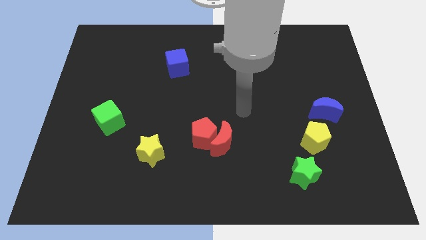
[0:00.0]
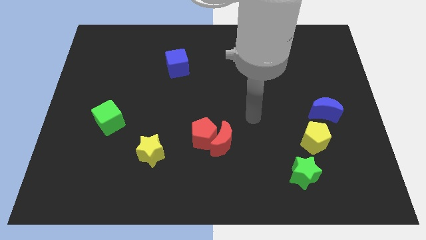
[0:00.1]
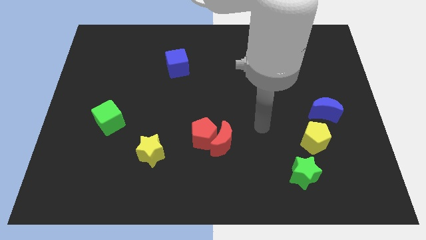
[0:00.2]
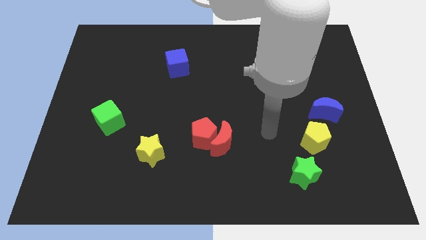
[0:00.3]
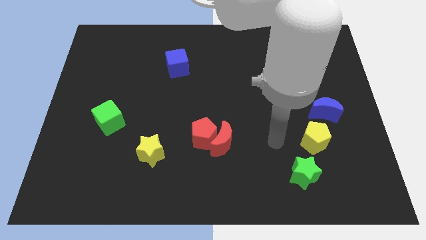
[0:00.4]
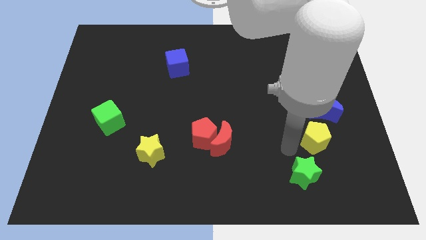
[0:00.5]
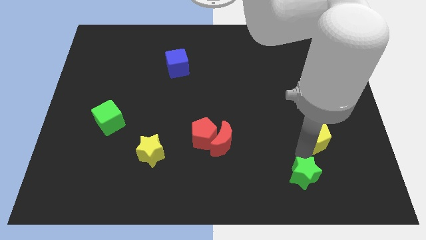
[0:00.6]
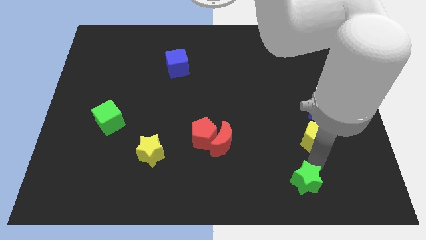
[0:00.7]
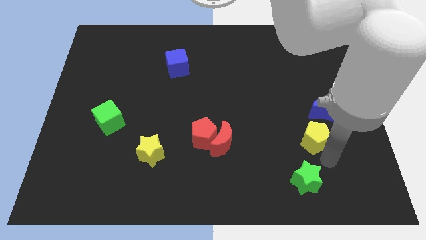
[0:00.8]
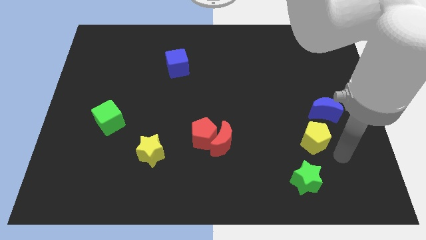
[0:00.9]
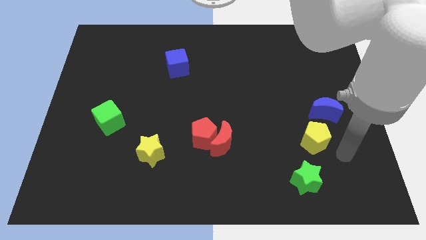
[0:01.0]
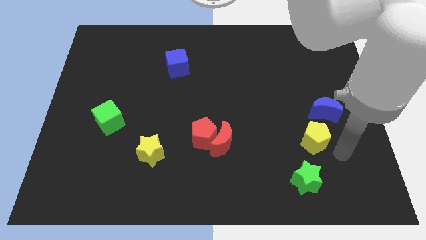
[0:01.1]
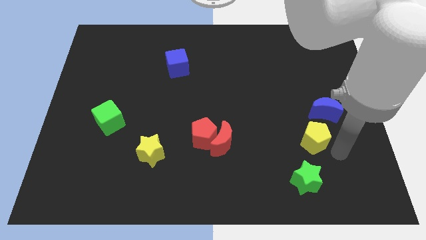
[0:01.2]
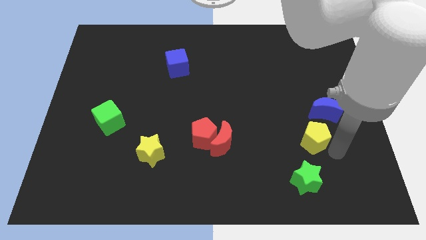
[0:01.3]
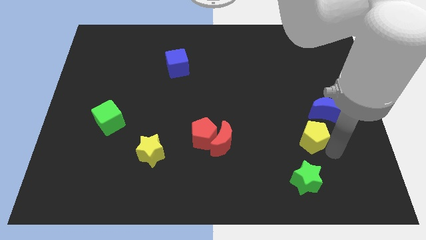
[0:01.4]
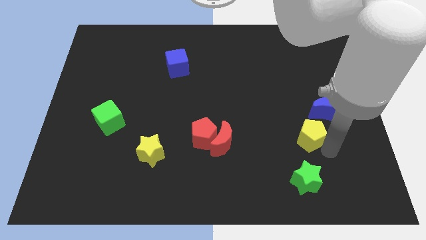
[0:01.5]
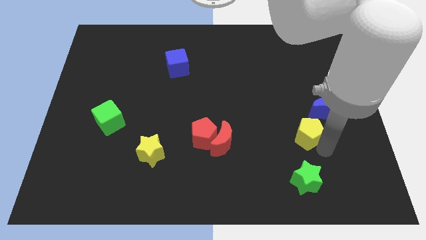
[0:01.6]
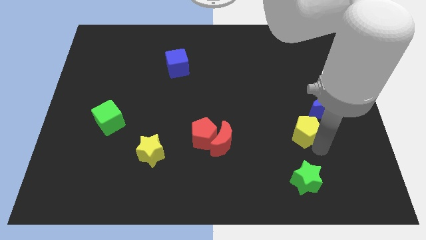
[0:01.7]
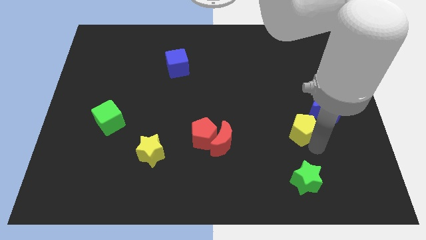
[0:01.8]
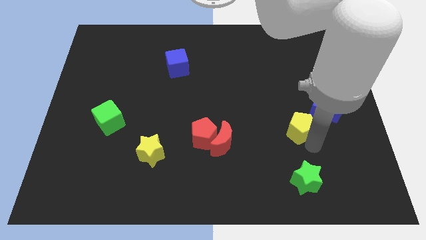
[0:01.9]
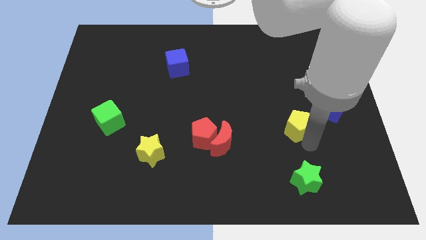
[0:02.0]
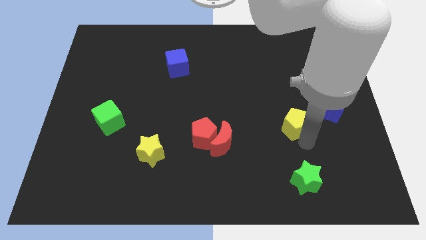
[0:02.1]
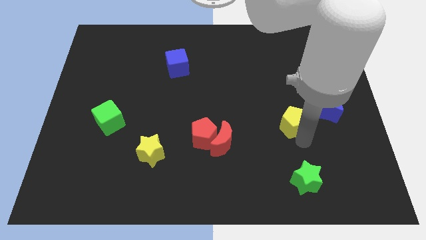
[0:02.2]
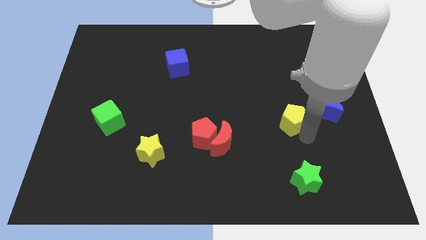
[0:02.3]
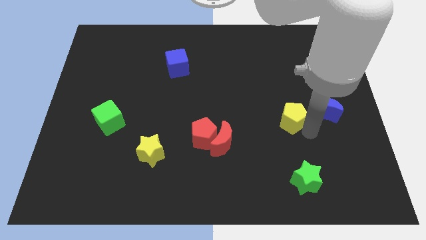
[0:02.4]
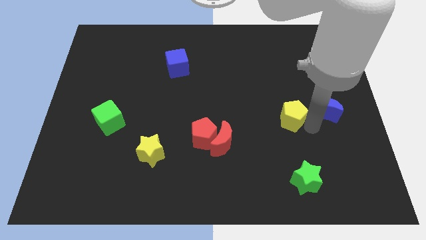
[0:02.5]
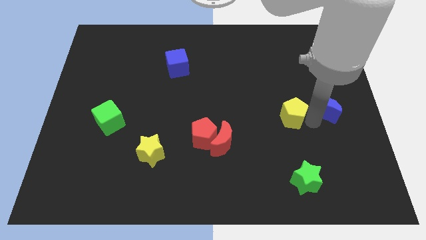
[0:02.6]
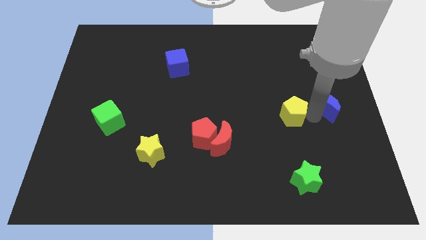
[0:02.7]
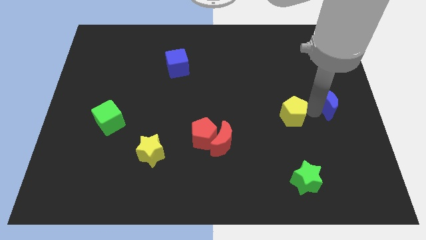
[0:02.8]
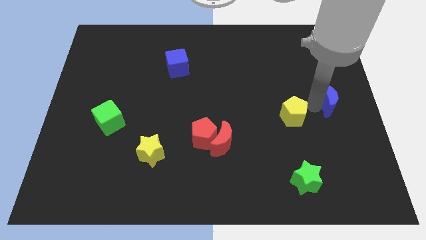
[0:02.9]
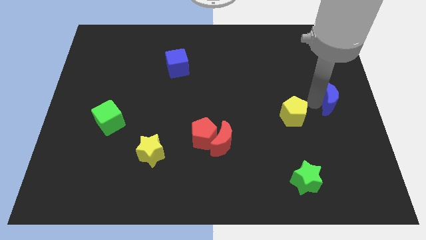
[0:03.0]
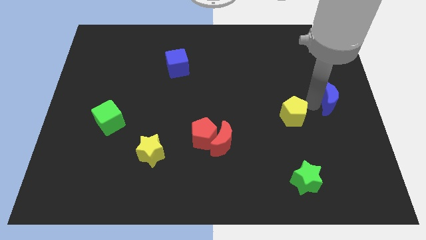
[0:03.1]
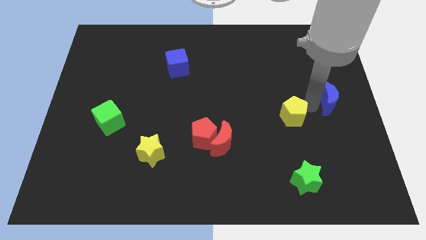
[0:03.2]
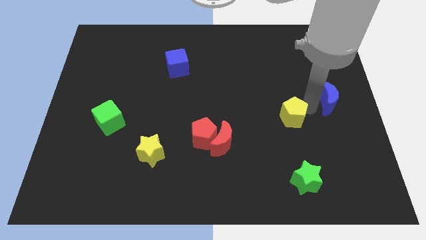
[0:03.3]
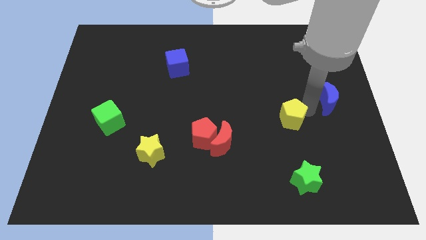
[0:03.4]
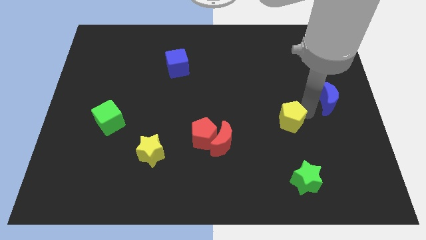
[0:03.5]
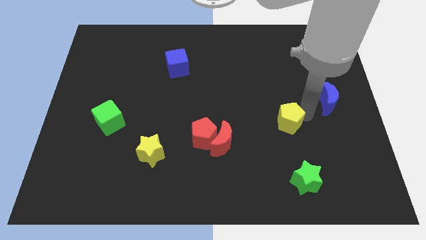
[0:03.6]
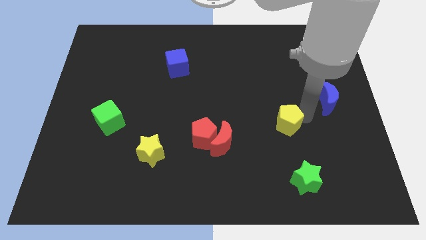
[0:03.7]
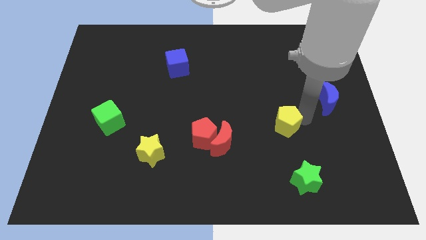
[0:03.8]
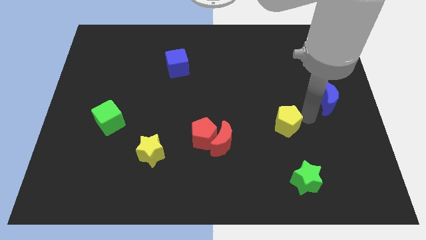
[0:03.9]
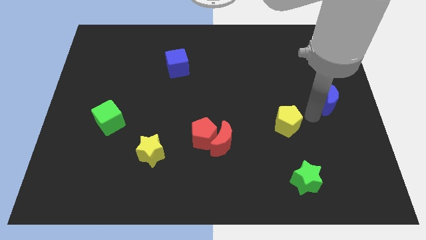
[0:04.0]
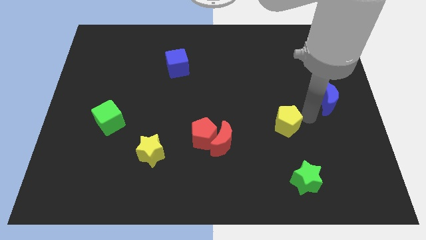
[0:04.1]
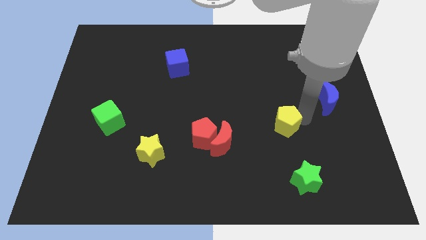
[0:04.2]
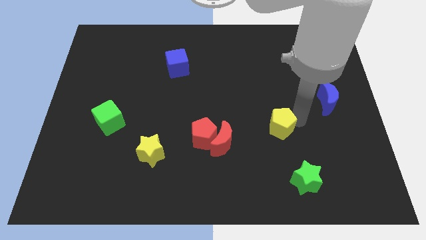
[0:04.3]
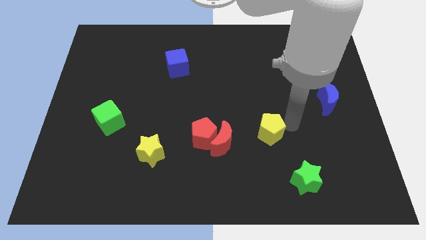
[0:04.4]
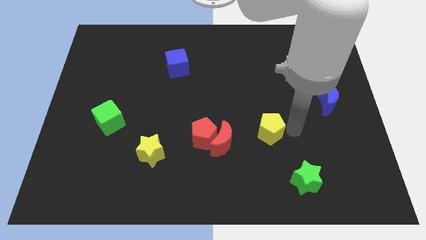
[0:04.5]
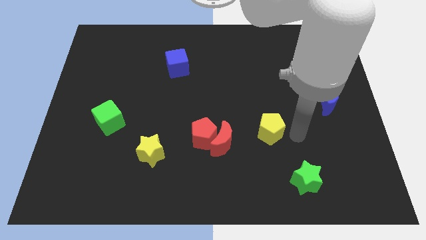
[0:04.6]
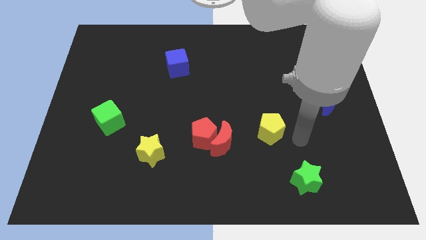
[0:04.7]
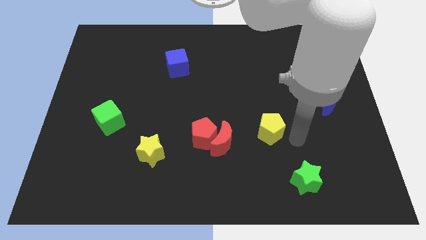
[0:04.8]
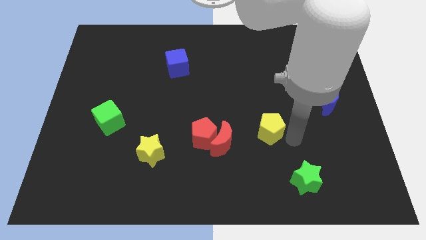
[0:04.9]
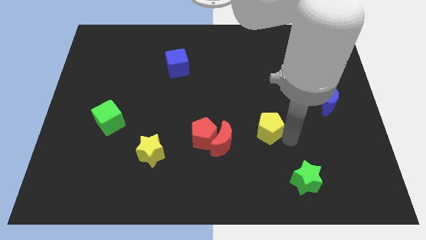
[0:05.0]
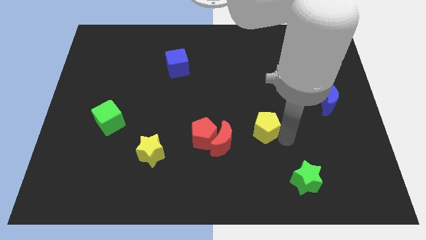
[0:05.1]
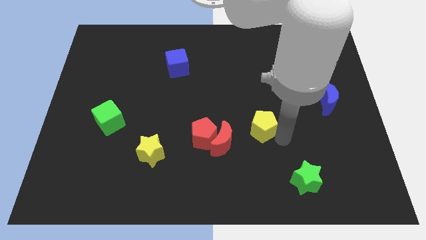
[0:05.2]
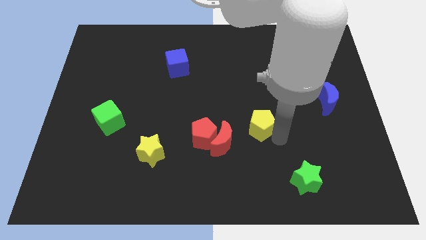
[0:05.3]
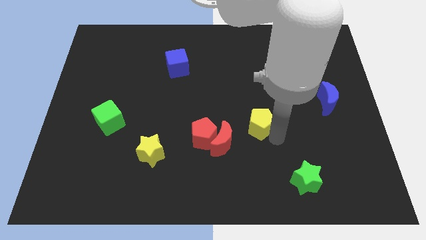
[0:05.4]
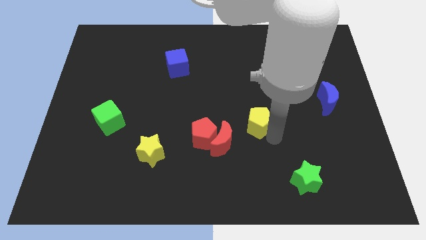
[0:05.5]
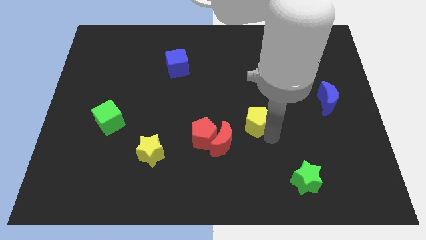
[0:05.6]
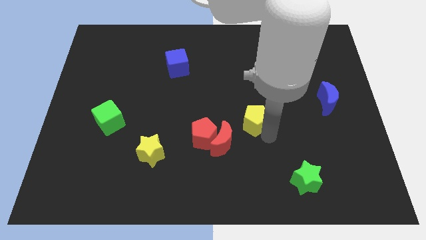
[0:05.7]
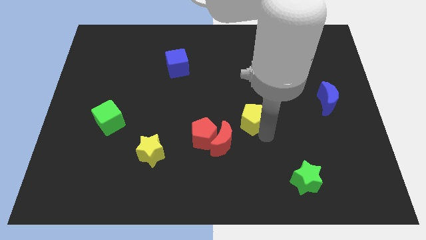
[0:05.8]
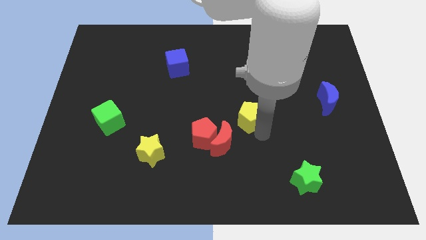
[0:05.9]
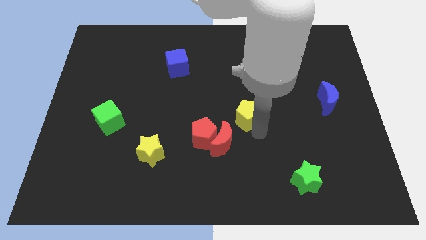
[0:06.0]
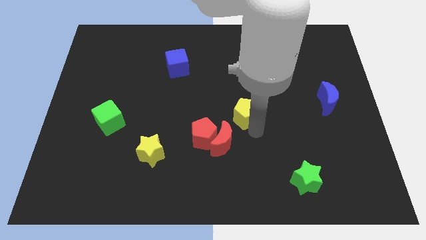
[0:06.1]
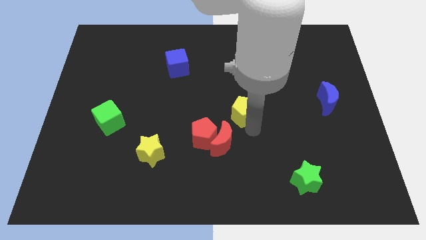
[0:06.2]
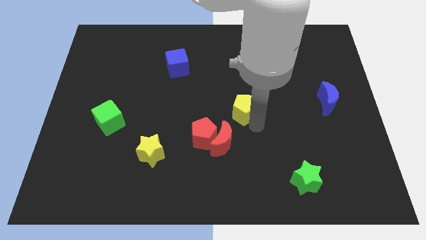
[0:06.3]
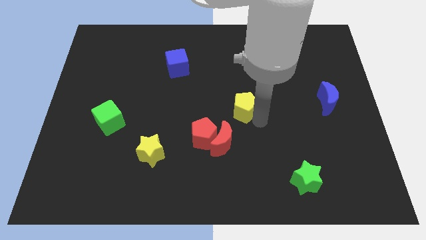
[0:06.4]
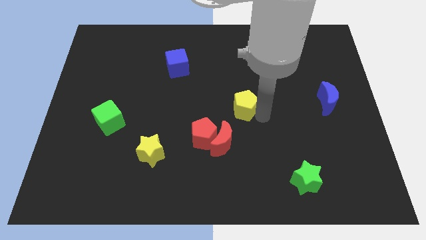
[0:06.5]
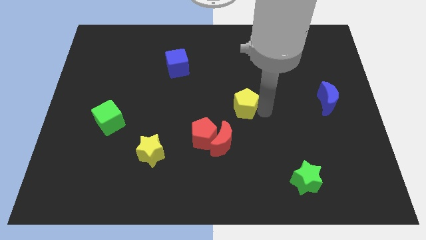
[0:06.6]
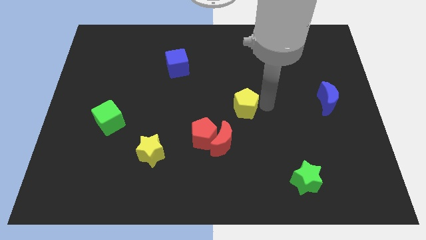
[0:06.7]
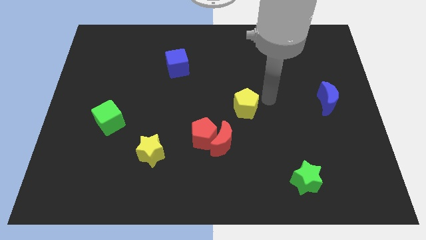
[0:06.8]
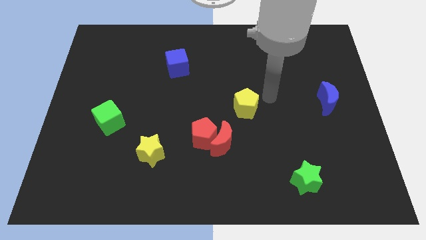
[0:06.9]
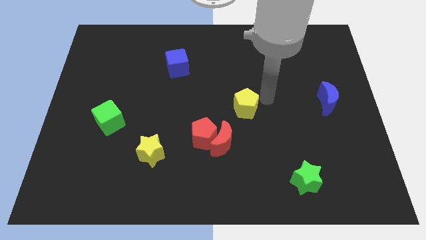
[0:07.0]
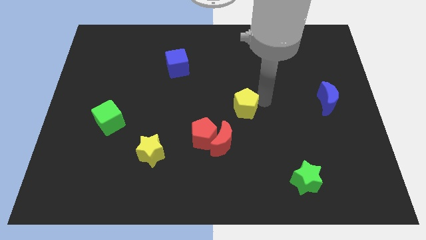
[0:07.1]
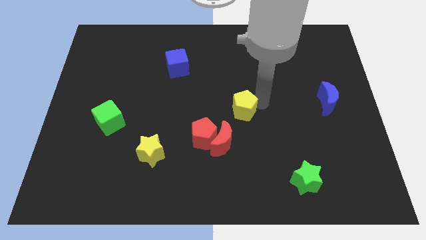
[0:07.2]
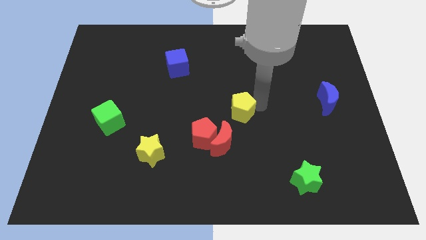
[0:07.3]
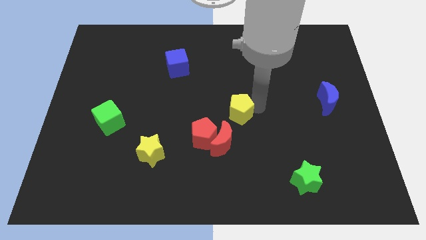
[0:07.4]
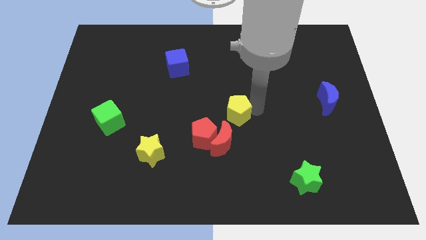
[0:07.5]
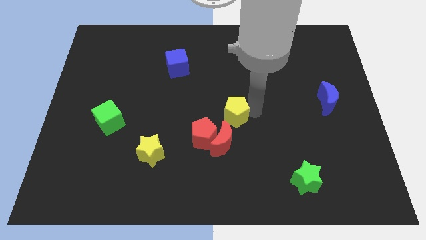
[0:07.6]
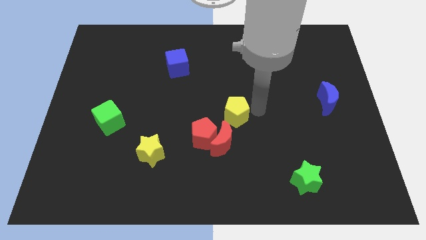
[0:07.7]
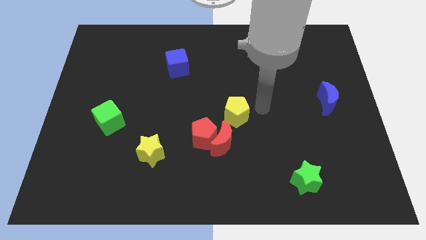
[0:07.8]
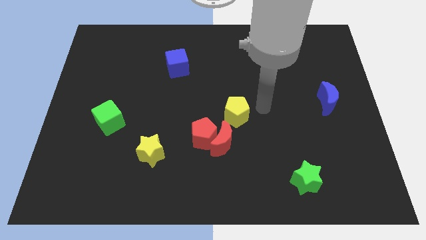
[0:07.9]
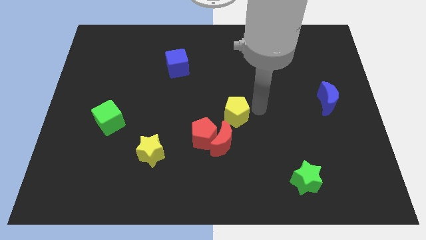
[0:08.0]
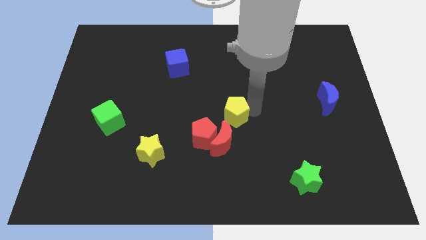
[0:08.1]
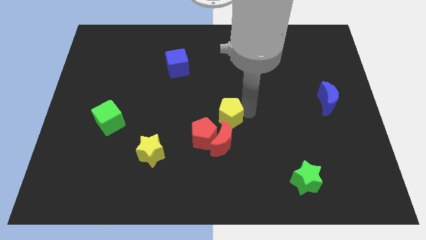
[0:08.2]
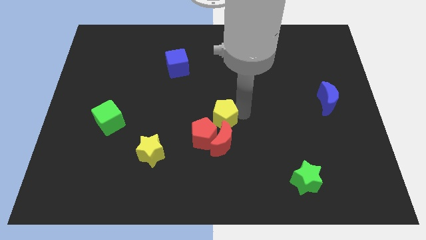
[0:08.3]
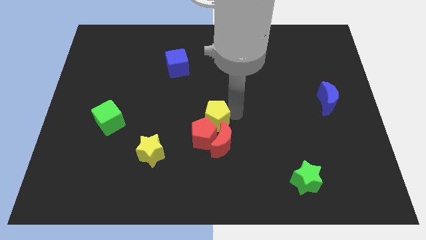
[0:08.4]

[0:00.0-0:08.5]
push the yellow pentagon to the red pentagon
